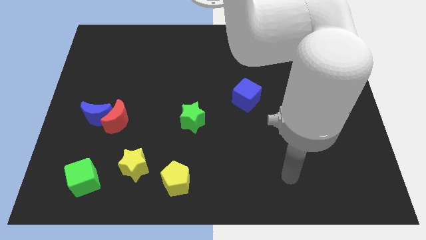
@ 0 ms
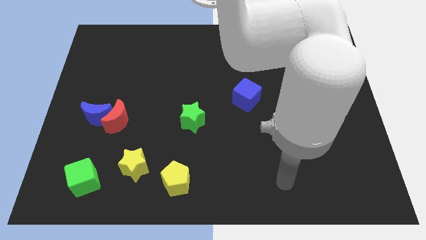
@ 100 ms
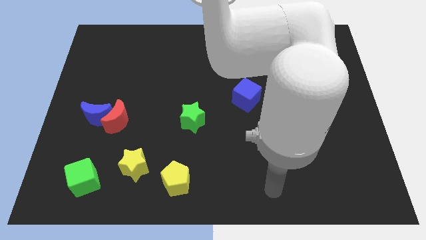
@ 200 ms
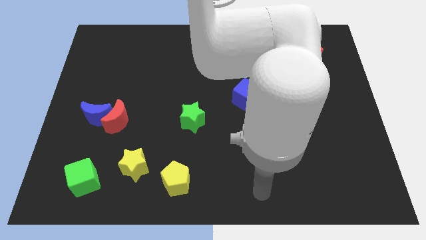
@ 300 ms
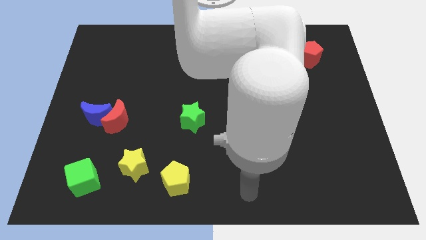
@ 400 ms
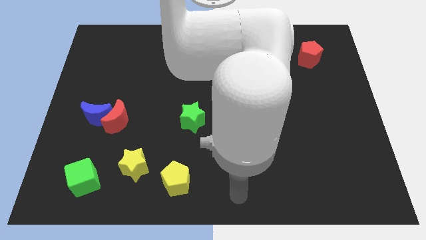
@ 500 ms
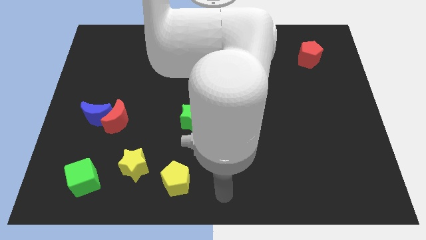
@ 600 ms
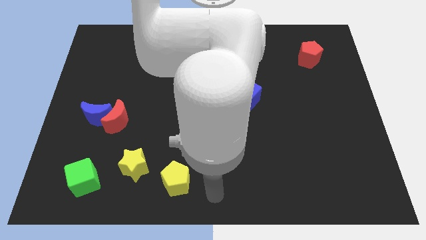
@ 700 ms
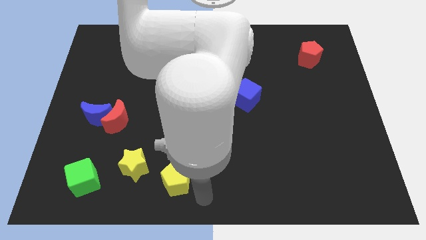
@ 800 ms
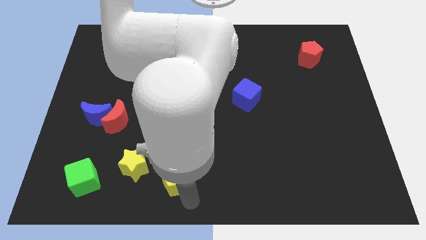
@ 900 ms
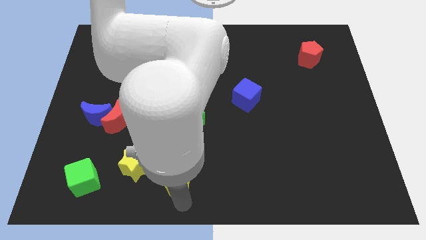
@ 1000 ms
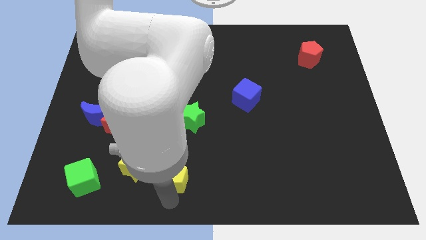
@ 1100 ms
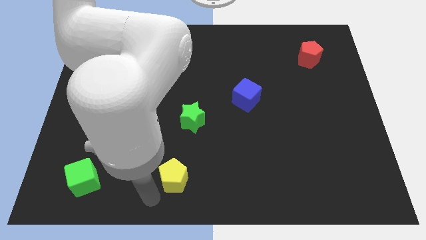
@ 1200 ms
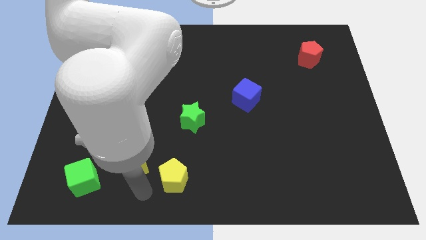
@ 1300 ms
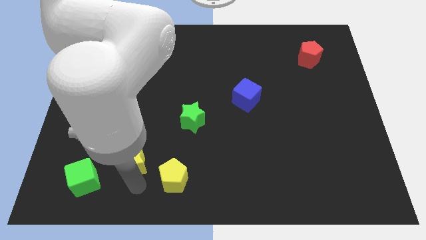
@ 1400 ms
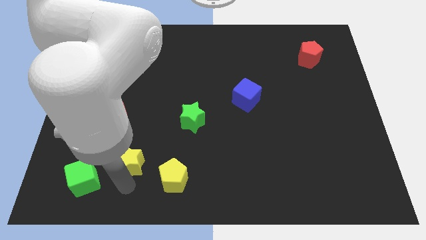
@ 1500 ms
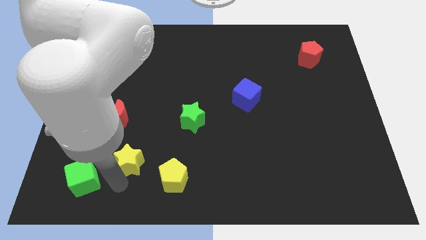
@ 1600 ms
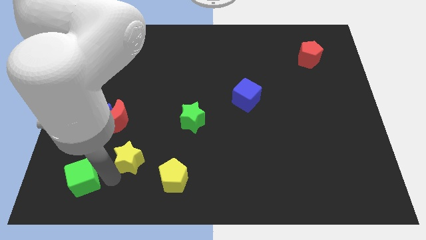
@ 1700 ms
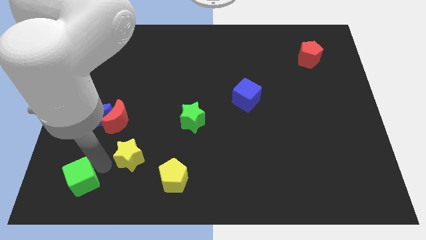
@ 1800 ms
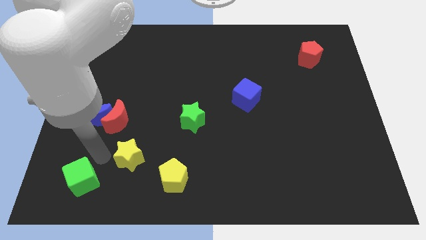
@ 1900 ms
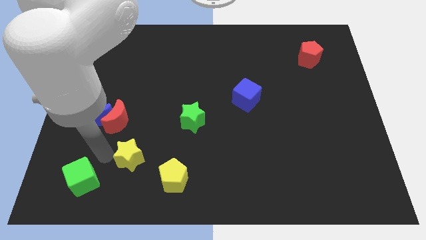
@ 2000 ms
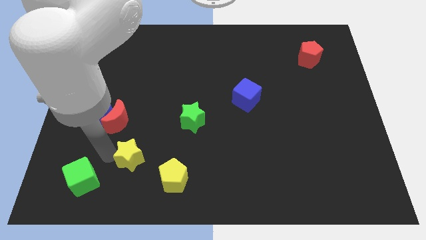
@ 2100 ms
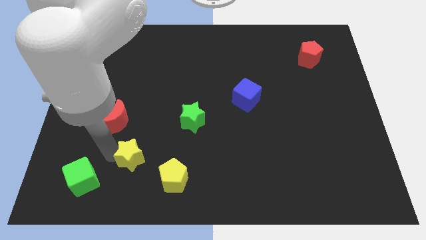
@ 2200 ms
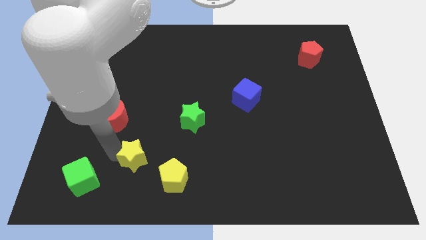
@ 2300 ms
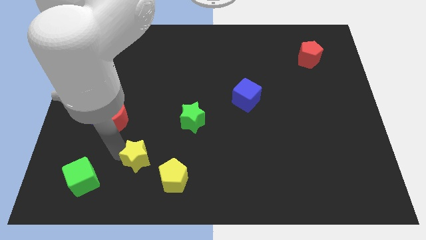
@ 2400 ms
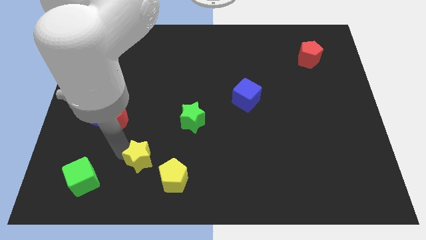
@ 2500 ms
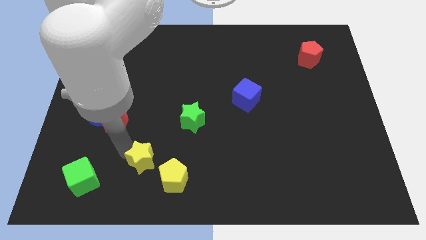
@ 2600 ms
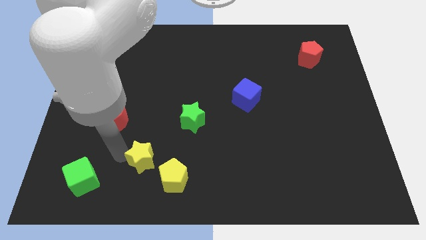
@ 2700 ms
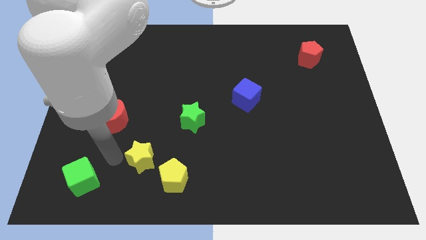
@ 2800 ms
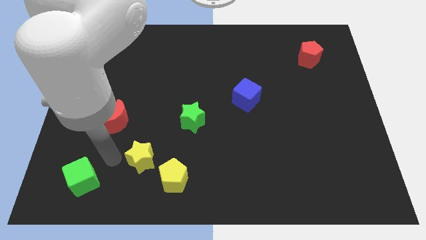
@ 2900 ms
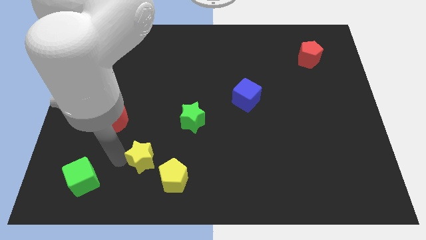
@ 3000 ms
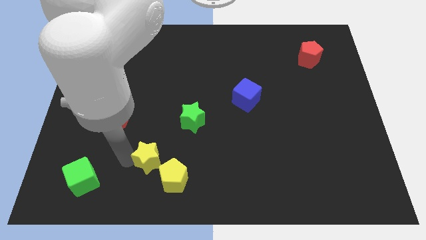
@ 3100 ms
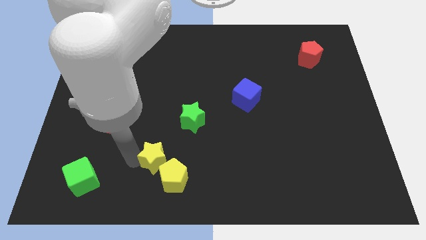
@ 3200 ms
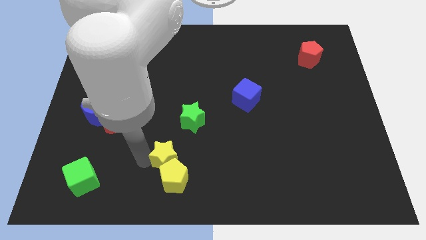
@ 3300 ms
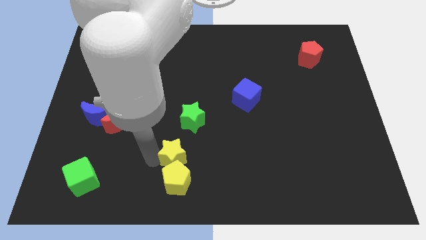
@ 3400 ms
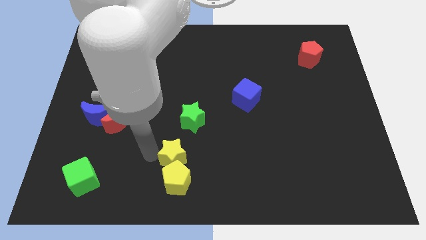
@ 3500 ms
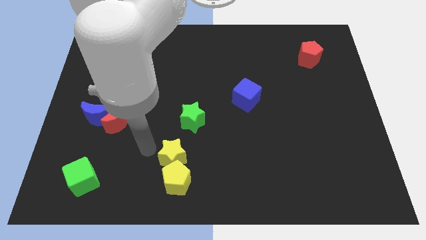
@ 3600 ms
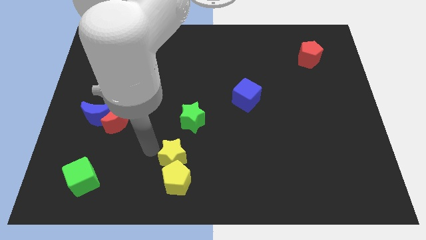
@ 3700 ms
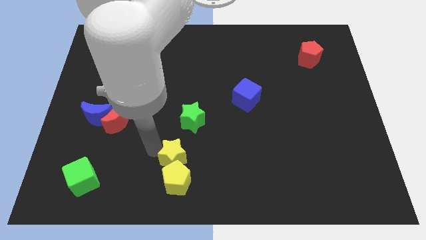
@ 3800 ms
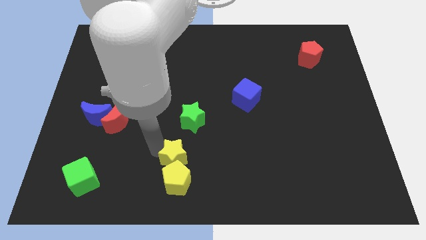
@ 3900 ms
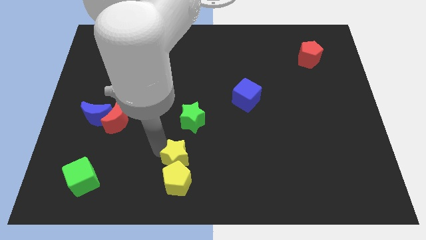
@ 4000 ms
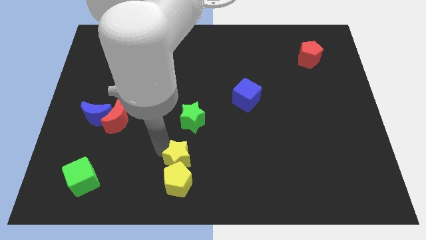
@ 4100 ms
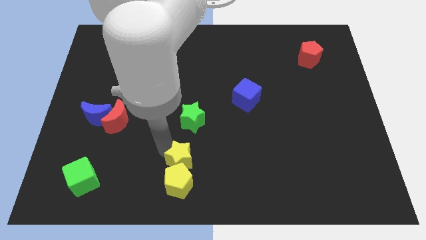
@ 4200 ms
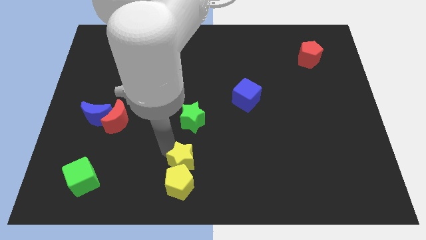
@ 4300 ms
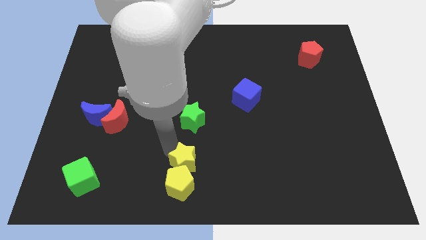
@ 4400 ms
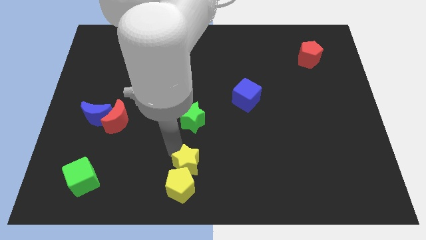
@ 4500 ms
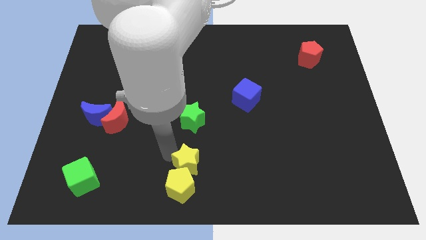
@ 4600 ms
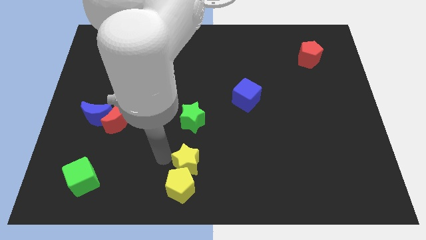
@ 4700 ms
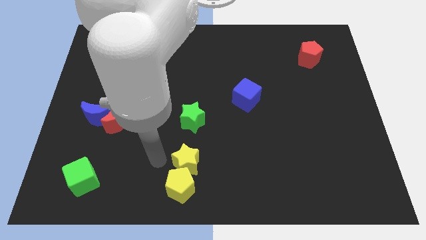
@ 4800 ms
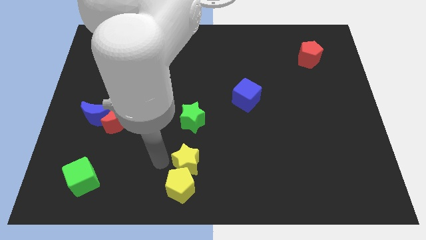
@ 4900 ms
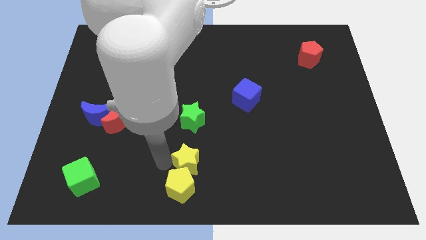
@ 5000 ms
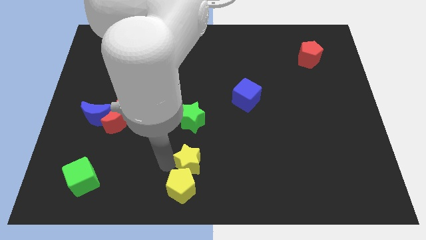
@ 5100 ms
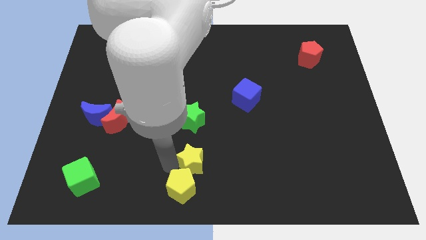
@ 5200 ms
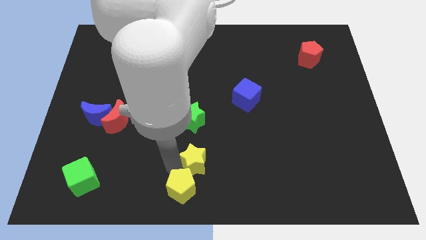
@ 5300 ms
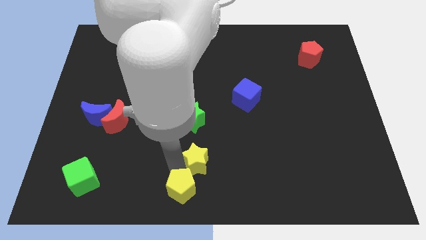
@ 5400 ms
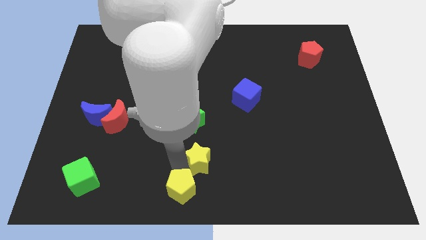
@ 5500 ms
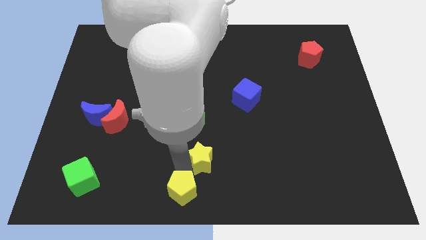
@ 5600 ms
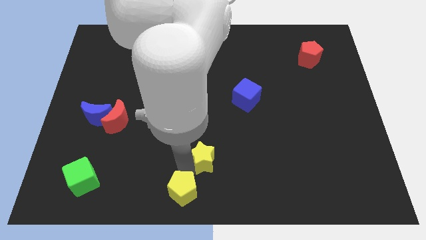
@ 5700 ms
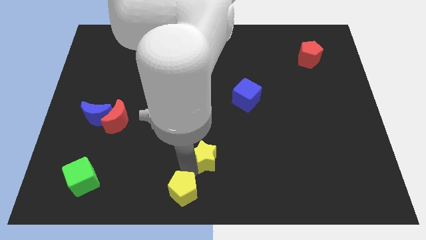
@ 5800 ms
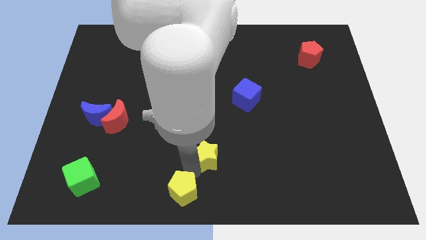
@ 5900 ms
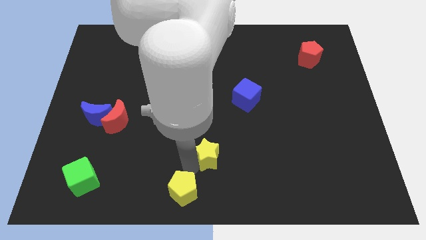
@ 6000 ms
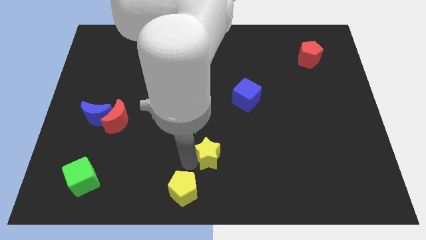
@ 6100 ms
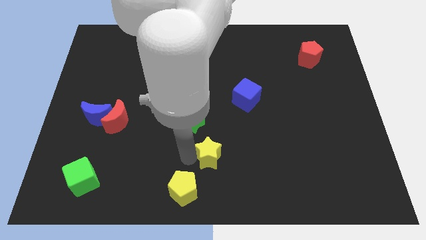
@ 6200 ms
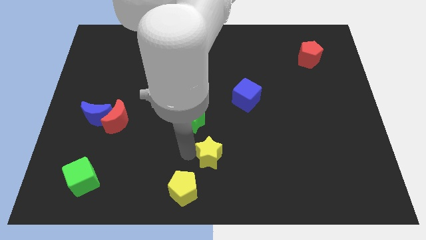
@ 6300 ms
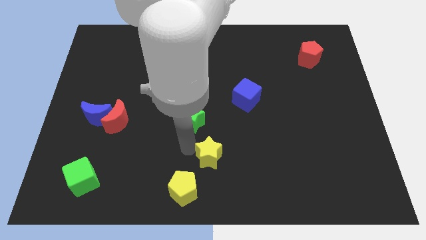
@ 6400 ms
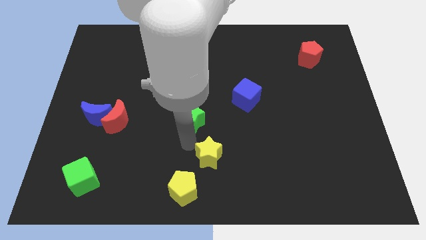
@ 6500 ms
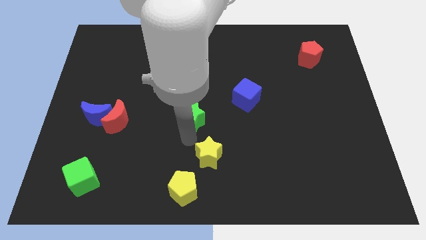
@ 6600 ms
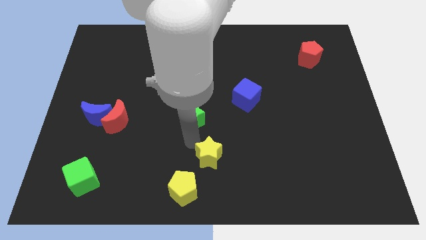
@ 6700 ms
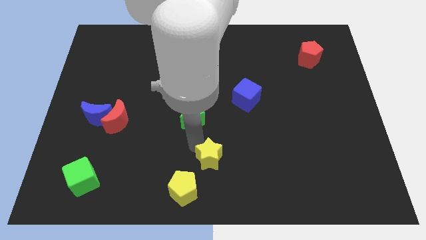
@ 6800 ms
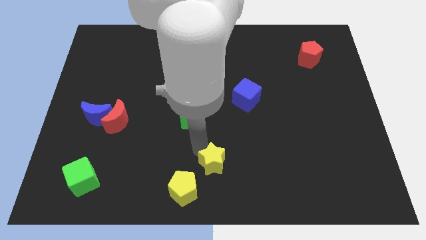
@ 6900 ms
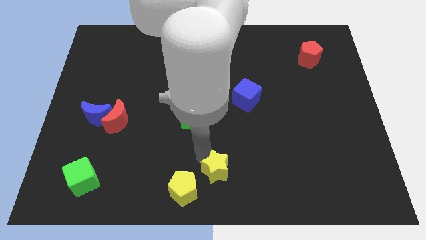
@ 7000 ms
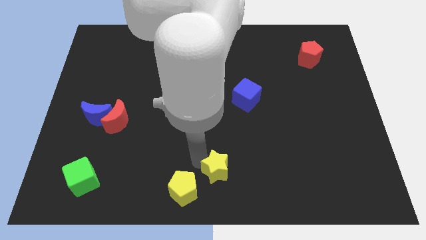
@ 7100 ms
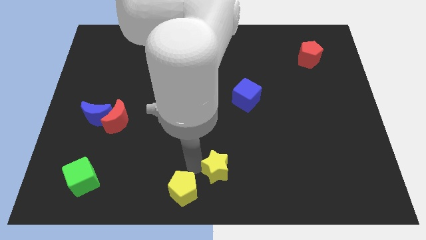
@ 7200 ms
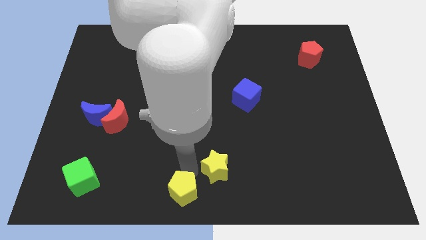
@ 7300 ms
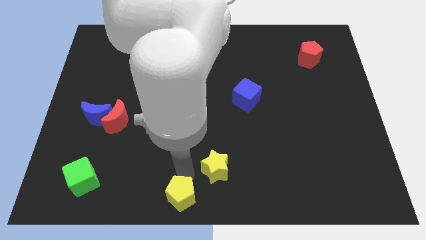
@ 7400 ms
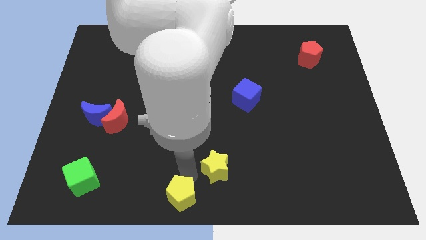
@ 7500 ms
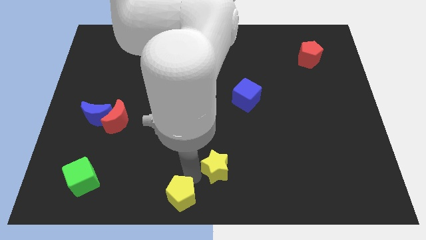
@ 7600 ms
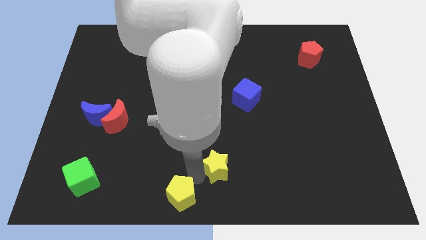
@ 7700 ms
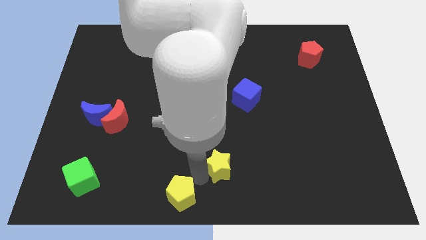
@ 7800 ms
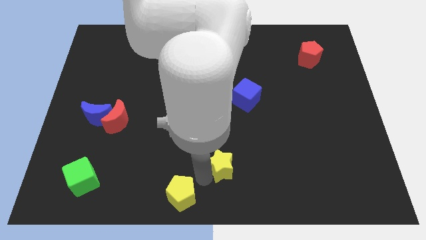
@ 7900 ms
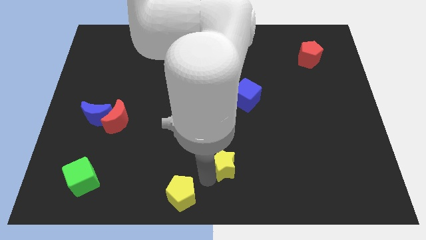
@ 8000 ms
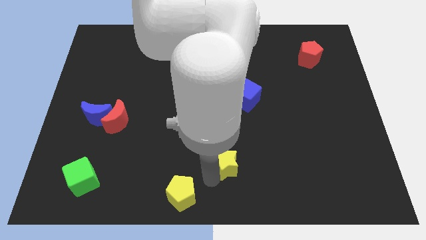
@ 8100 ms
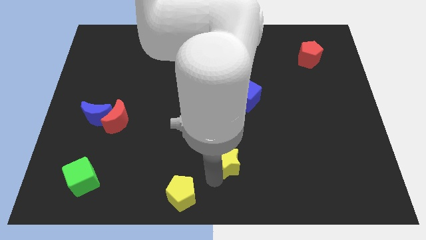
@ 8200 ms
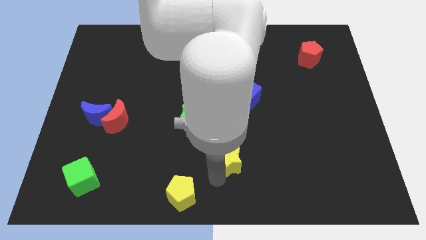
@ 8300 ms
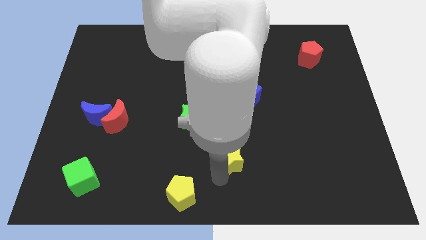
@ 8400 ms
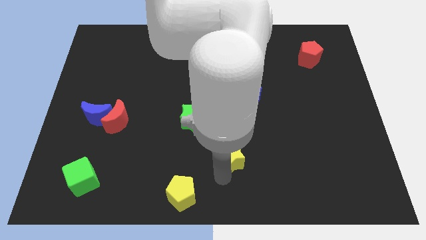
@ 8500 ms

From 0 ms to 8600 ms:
move the yellow star right
